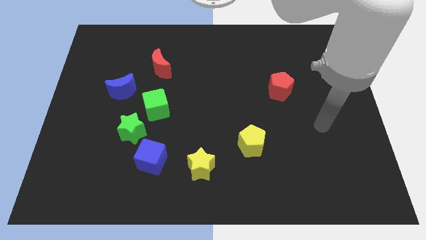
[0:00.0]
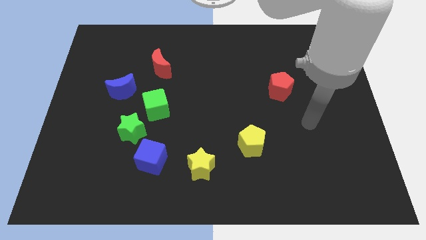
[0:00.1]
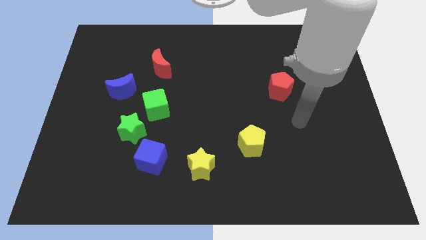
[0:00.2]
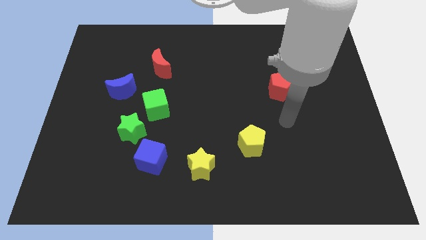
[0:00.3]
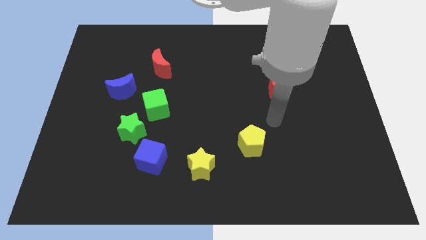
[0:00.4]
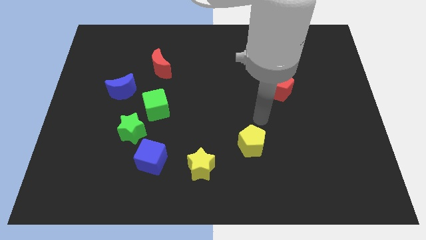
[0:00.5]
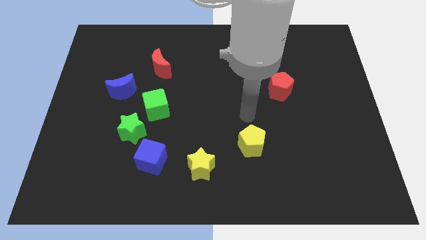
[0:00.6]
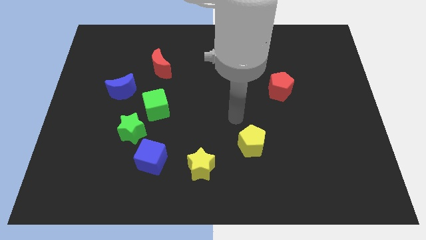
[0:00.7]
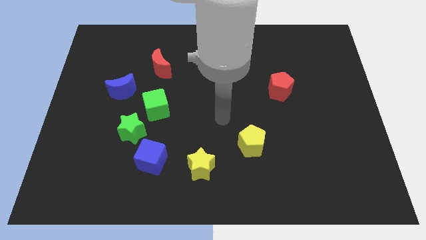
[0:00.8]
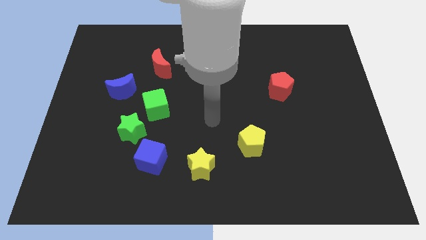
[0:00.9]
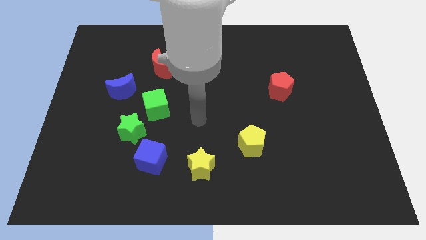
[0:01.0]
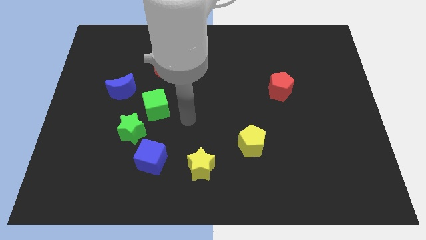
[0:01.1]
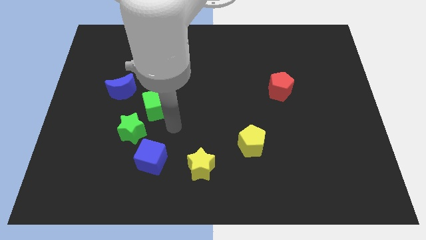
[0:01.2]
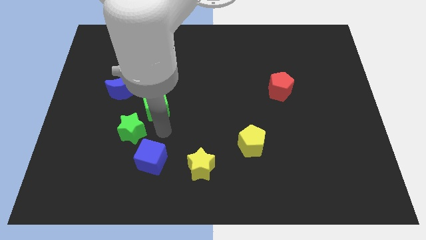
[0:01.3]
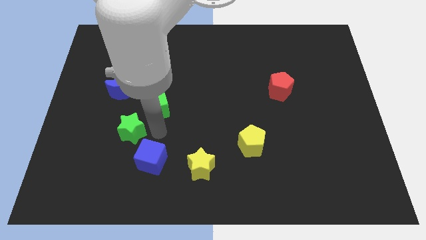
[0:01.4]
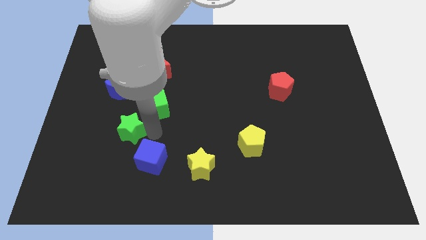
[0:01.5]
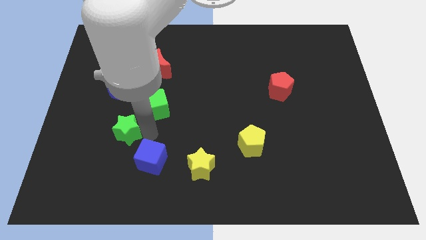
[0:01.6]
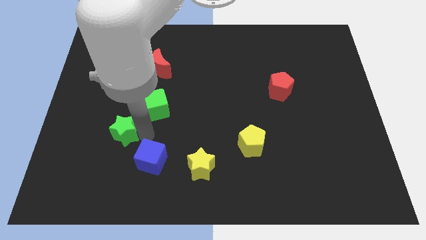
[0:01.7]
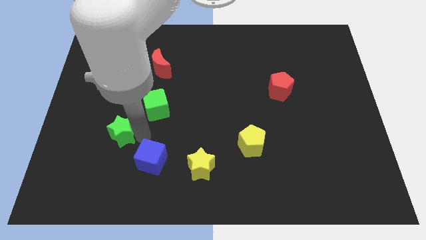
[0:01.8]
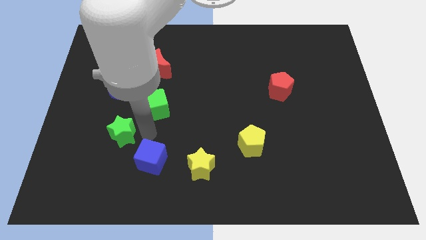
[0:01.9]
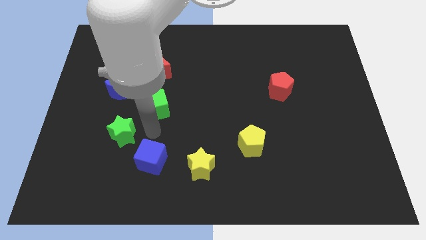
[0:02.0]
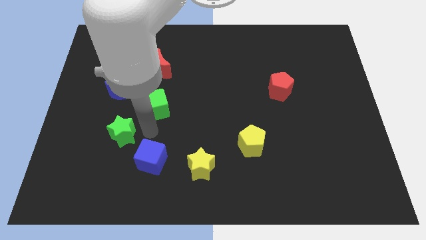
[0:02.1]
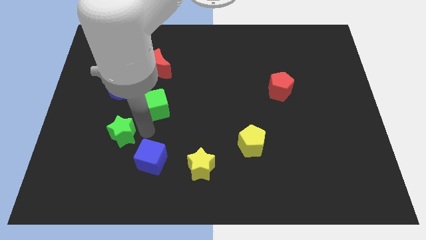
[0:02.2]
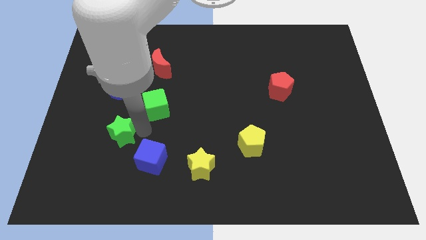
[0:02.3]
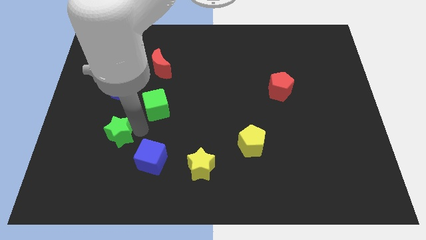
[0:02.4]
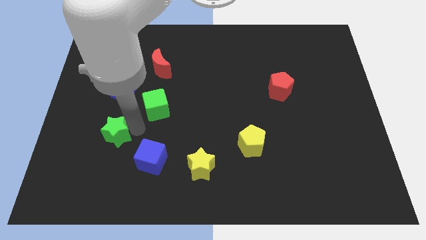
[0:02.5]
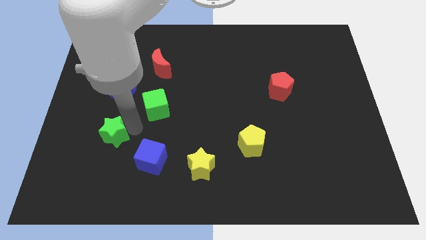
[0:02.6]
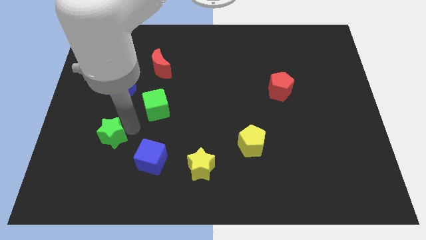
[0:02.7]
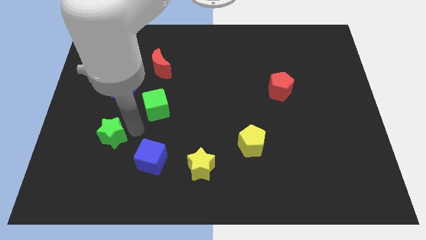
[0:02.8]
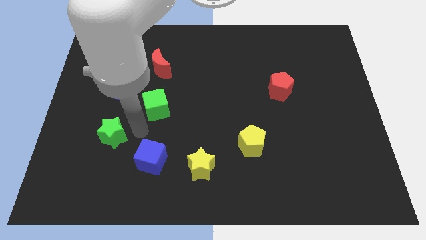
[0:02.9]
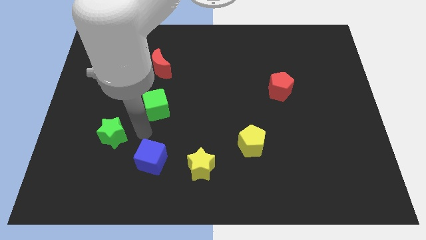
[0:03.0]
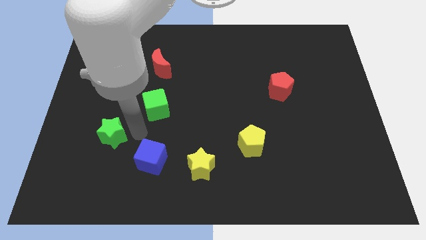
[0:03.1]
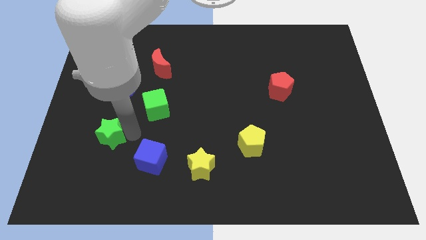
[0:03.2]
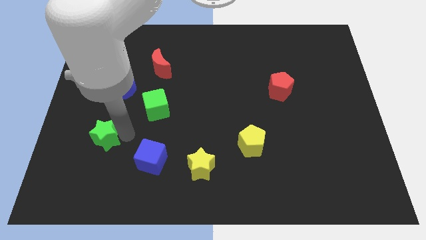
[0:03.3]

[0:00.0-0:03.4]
separate the green star from the green cube and blue cube

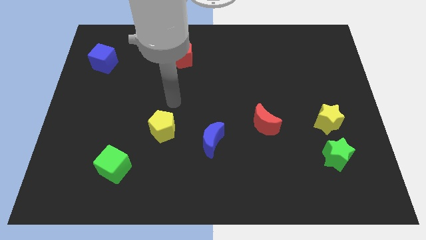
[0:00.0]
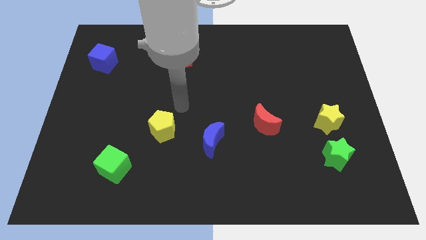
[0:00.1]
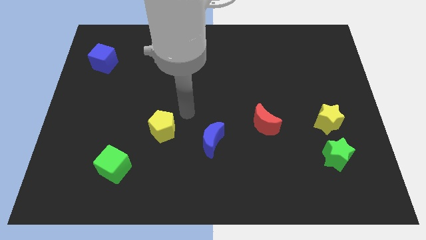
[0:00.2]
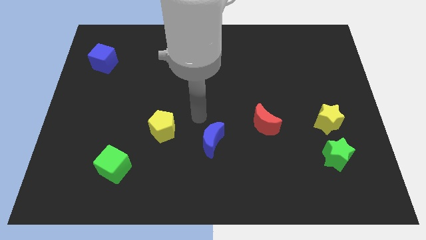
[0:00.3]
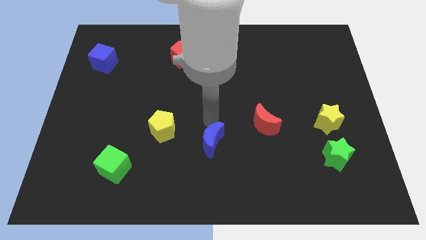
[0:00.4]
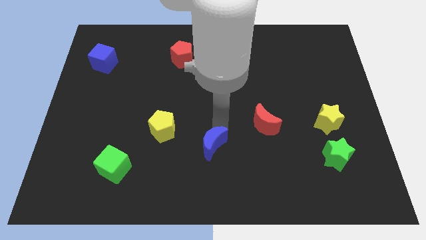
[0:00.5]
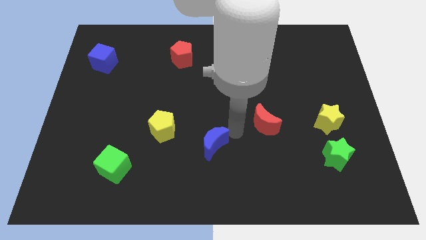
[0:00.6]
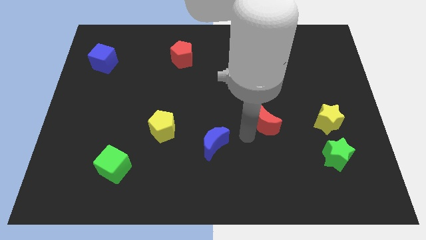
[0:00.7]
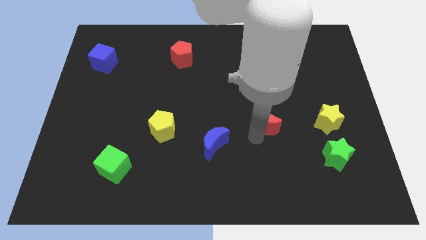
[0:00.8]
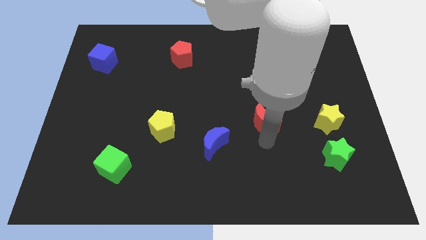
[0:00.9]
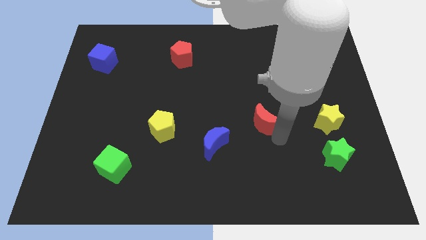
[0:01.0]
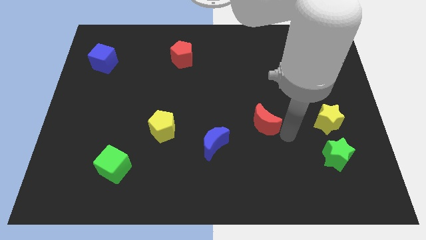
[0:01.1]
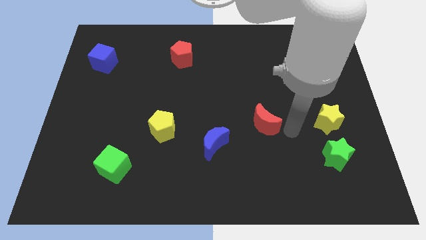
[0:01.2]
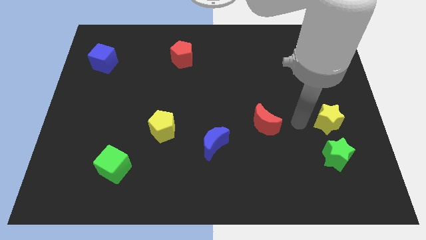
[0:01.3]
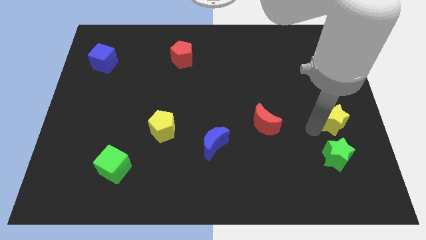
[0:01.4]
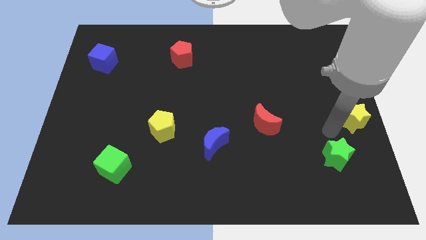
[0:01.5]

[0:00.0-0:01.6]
move the green star away from the yellow star

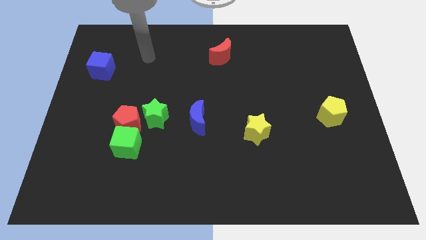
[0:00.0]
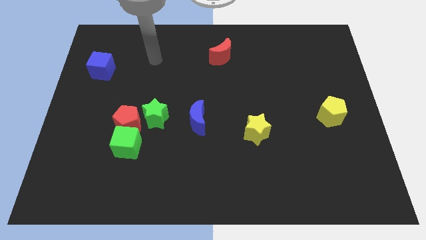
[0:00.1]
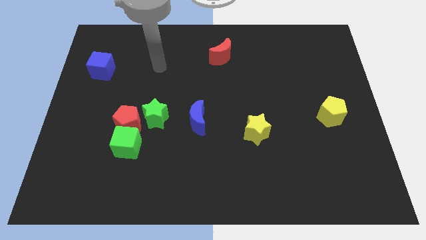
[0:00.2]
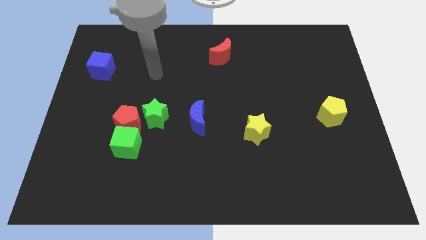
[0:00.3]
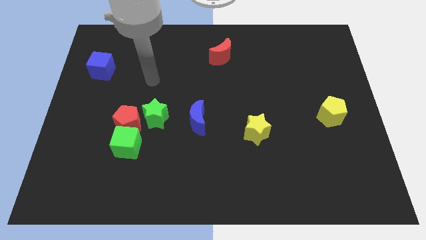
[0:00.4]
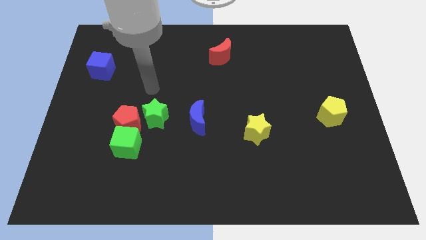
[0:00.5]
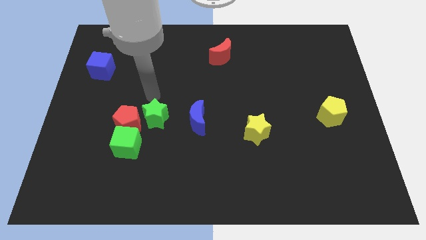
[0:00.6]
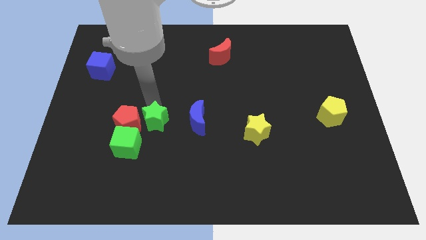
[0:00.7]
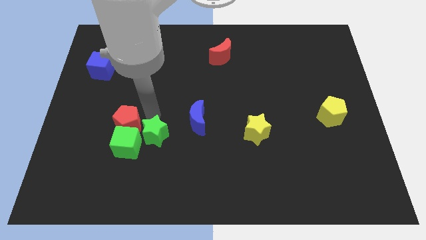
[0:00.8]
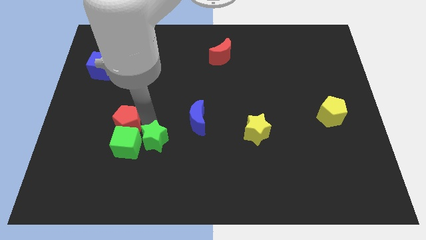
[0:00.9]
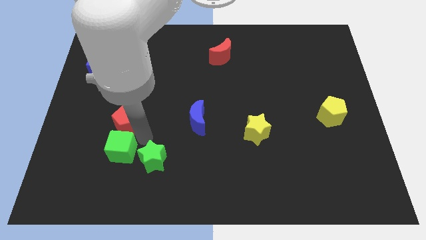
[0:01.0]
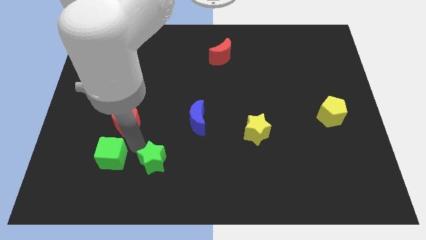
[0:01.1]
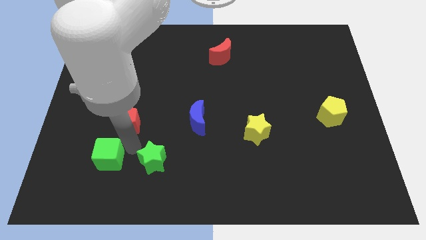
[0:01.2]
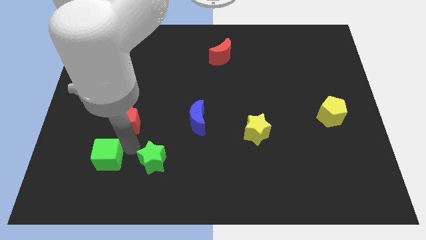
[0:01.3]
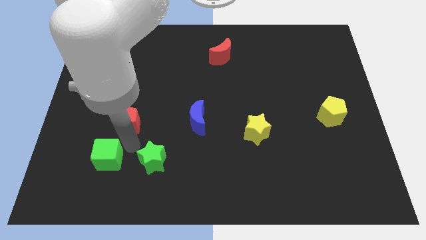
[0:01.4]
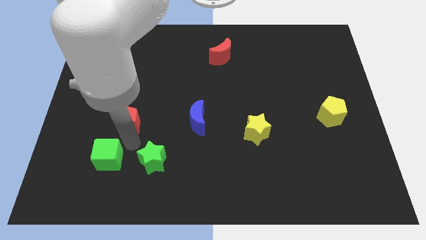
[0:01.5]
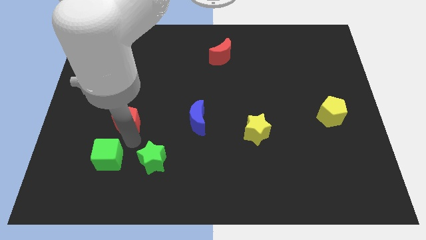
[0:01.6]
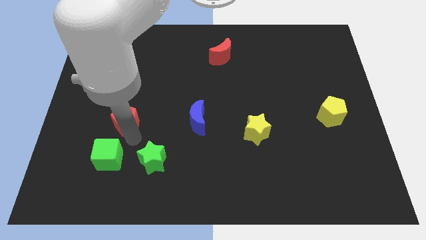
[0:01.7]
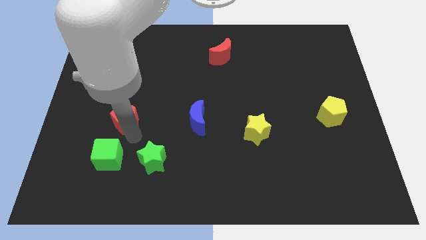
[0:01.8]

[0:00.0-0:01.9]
move the red pentagon away from the green star and green cube

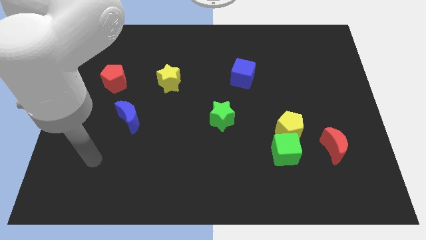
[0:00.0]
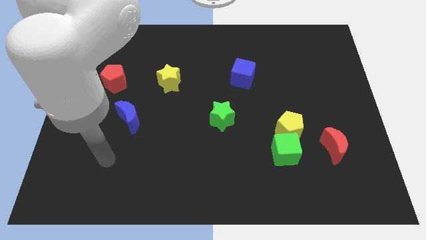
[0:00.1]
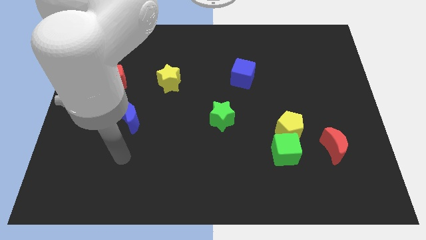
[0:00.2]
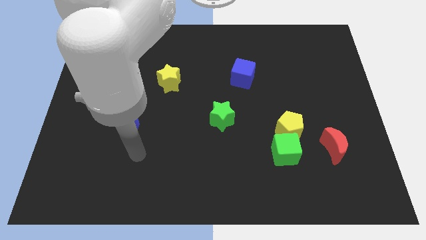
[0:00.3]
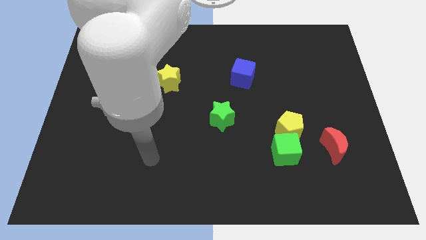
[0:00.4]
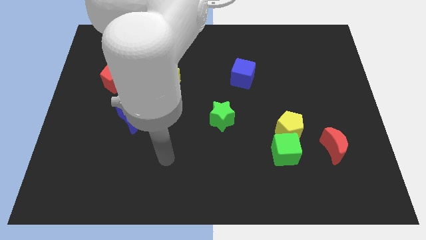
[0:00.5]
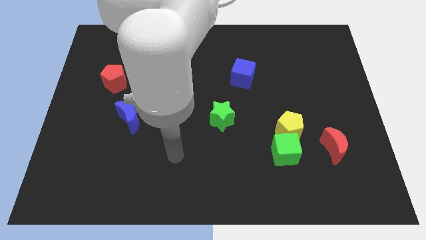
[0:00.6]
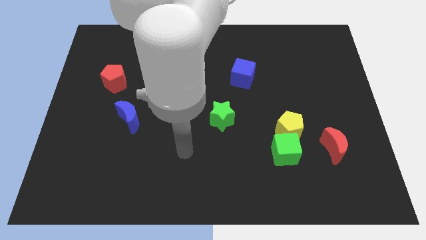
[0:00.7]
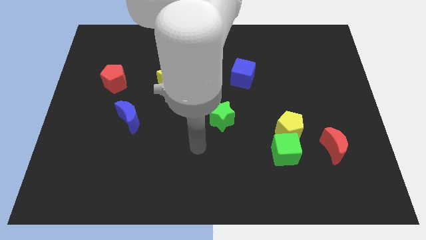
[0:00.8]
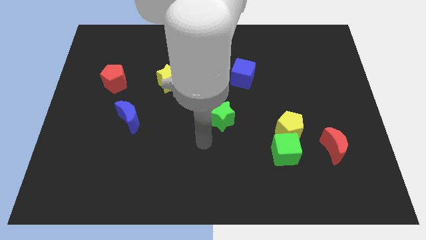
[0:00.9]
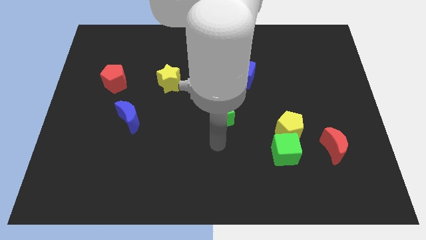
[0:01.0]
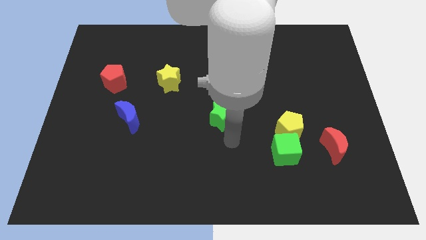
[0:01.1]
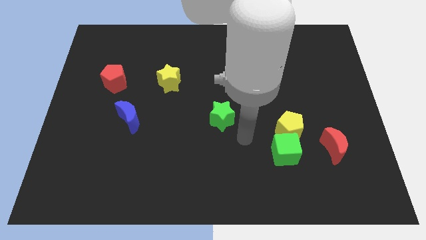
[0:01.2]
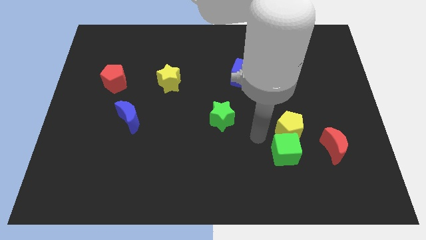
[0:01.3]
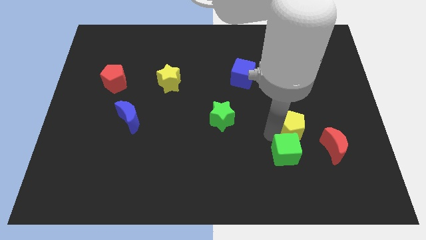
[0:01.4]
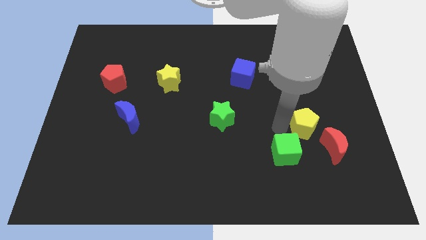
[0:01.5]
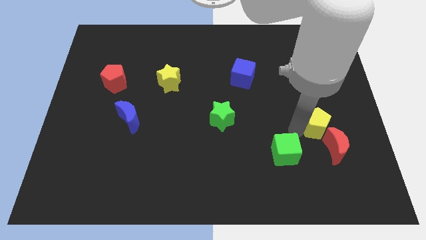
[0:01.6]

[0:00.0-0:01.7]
move the green cube away from the yellow pentagon

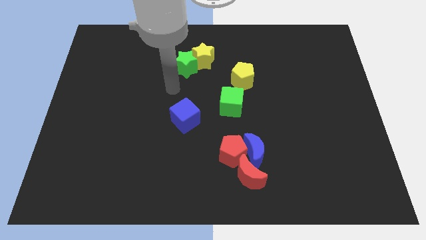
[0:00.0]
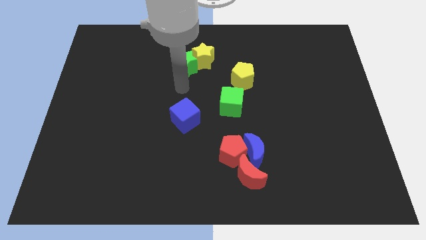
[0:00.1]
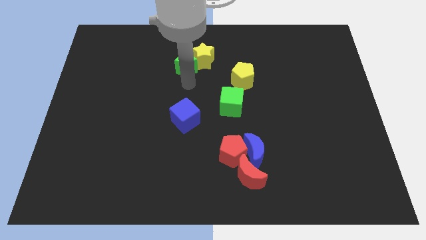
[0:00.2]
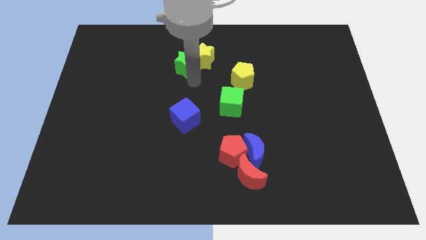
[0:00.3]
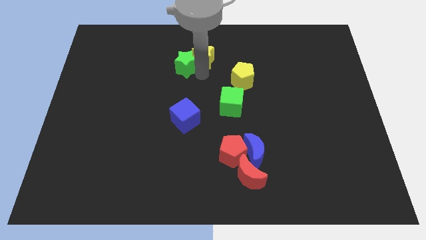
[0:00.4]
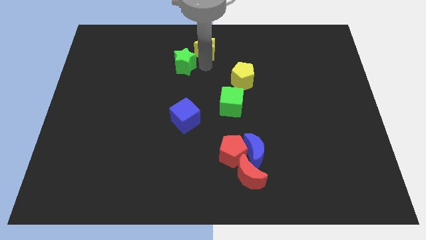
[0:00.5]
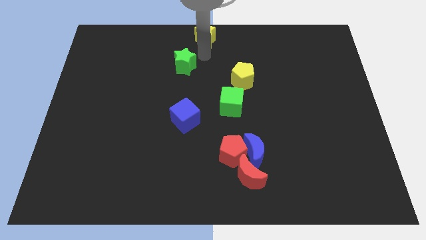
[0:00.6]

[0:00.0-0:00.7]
separate the green star from the yellow star
